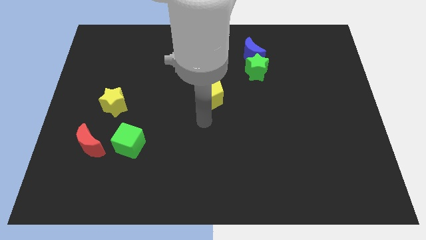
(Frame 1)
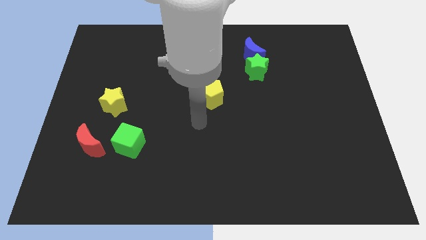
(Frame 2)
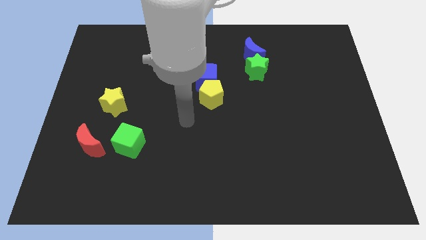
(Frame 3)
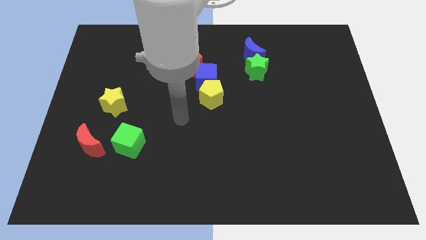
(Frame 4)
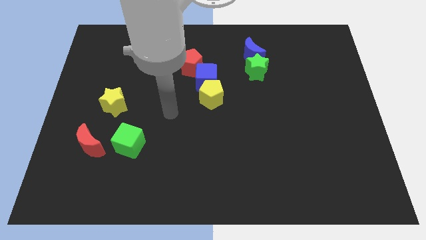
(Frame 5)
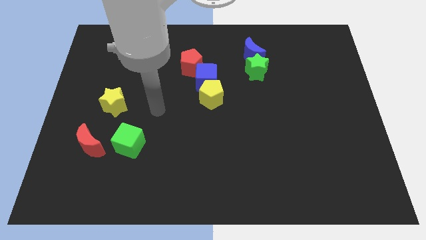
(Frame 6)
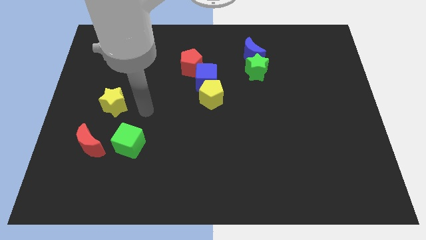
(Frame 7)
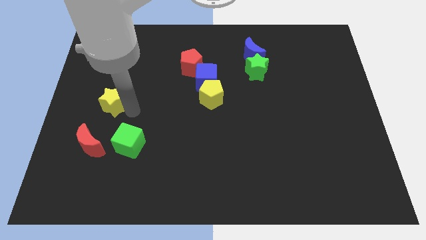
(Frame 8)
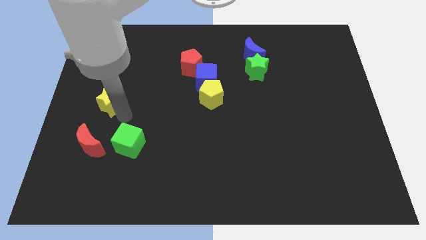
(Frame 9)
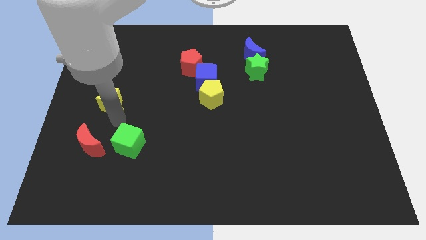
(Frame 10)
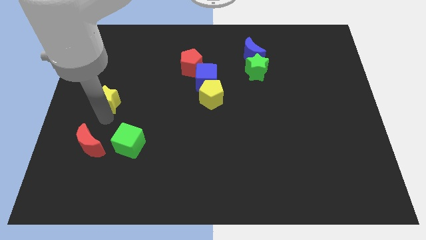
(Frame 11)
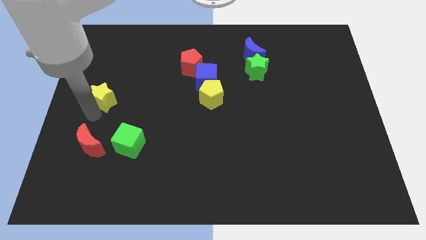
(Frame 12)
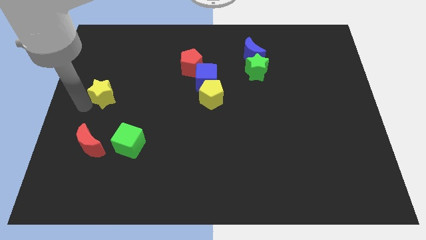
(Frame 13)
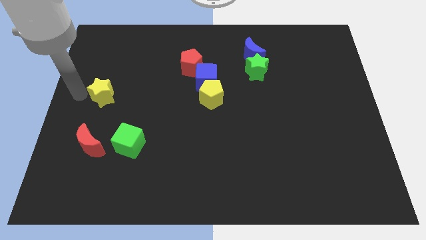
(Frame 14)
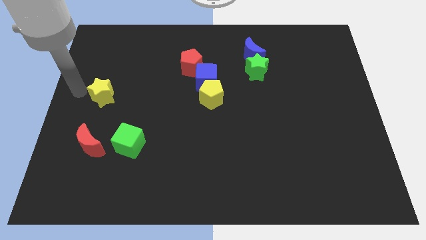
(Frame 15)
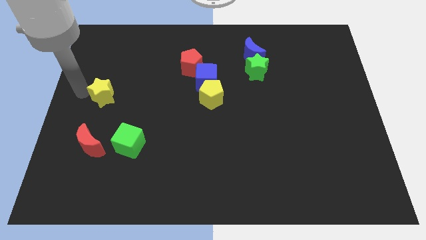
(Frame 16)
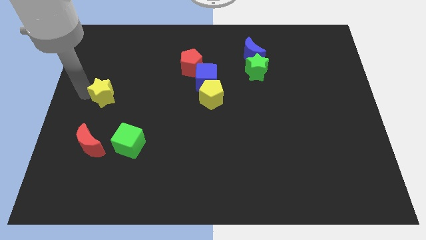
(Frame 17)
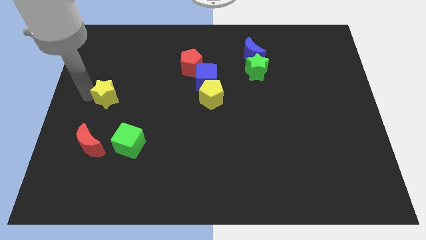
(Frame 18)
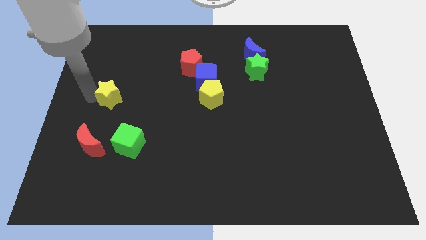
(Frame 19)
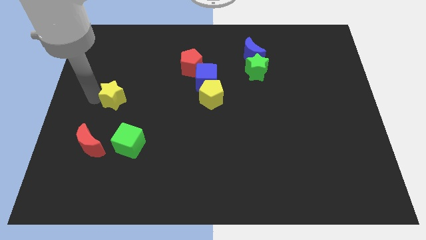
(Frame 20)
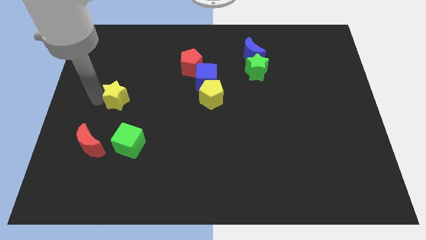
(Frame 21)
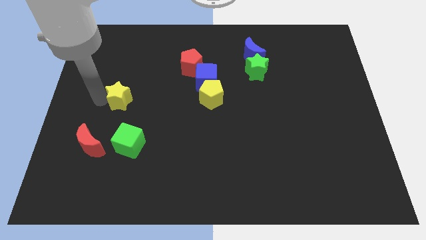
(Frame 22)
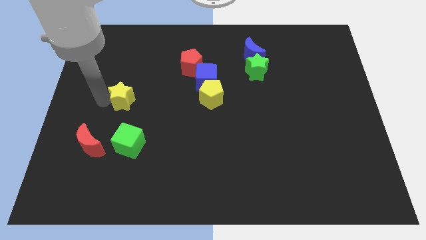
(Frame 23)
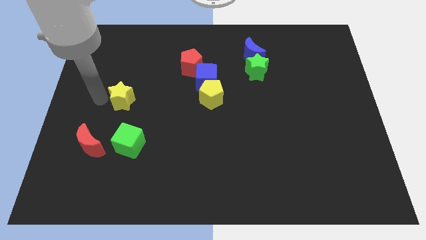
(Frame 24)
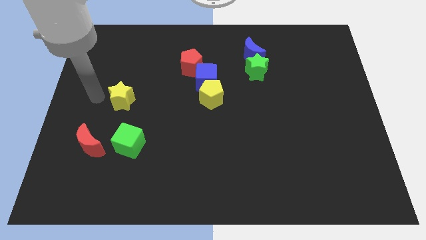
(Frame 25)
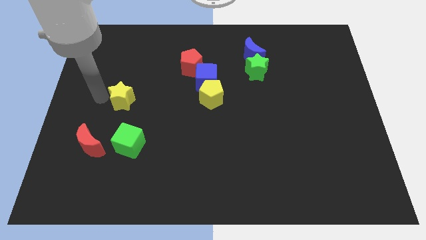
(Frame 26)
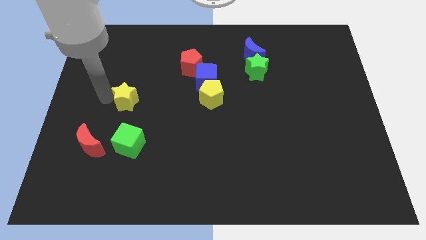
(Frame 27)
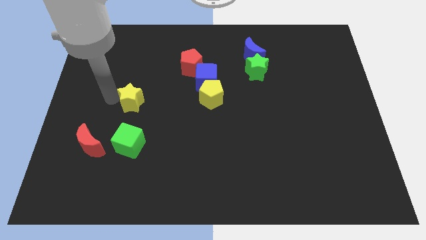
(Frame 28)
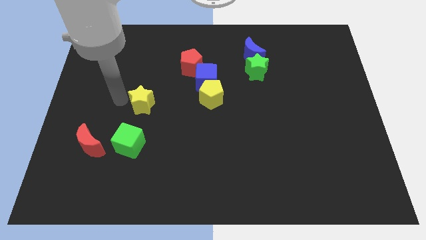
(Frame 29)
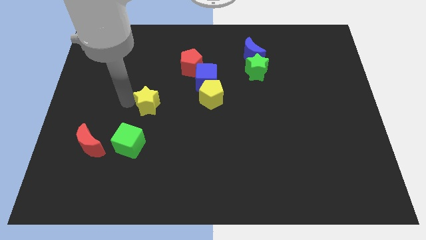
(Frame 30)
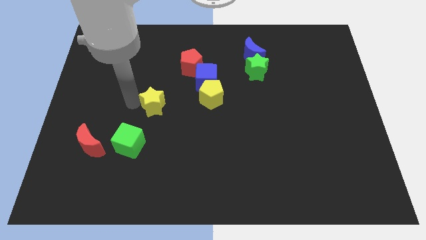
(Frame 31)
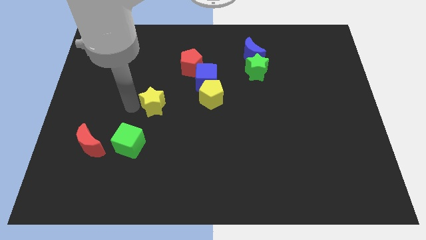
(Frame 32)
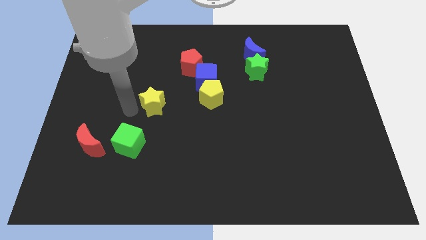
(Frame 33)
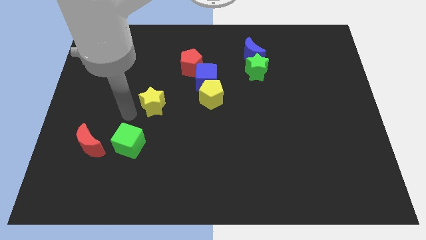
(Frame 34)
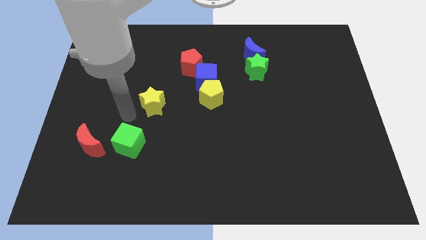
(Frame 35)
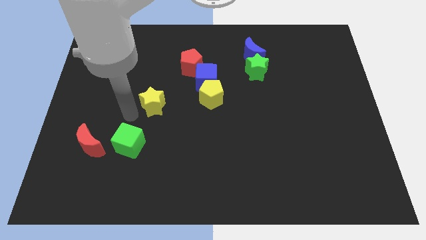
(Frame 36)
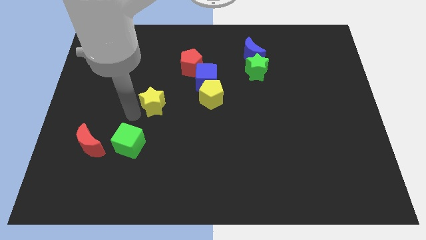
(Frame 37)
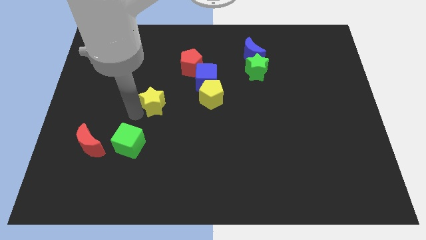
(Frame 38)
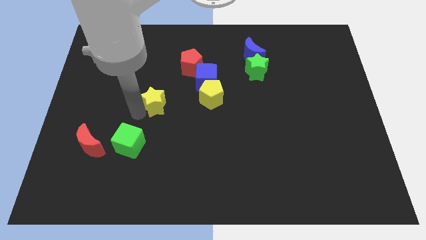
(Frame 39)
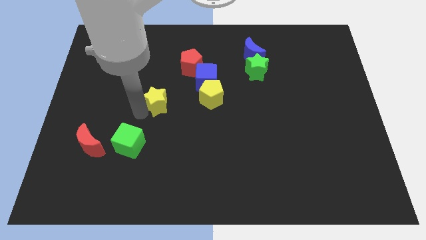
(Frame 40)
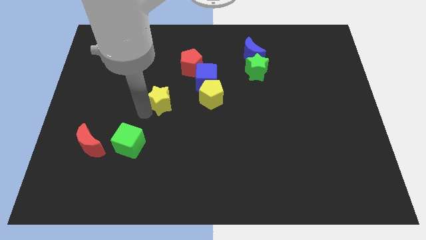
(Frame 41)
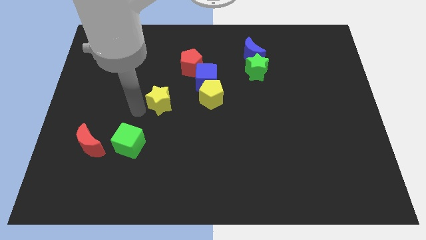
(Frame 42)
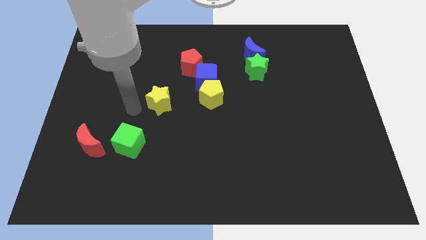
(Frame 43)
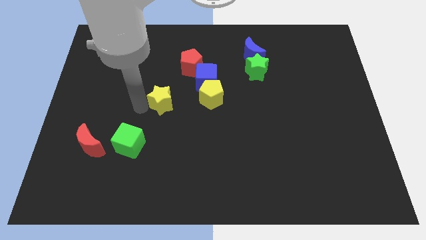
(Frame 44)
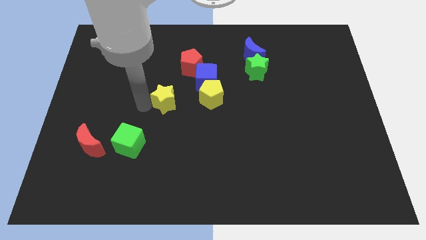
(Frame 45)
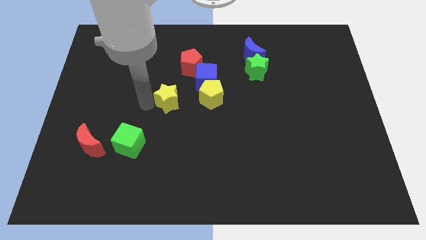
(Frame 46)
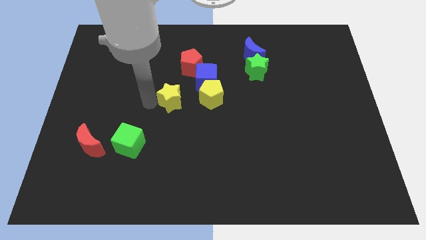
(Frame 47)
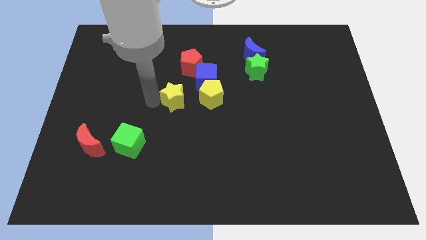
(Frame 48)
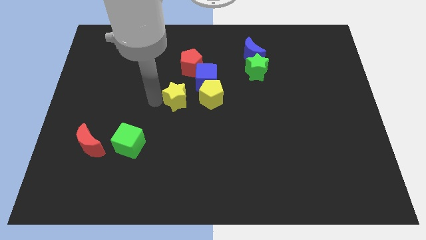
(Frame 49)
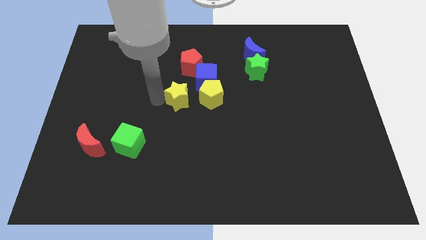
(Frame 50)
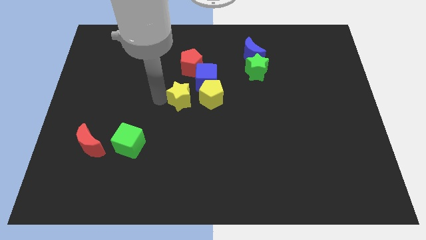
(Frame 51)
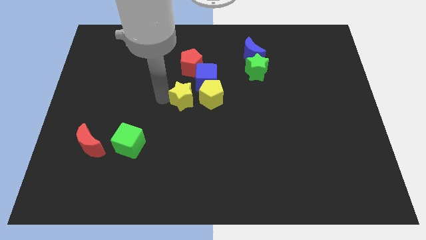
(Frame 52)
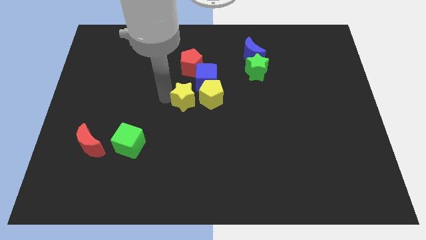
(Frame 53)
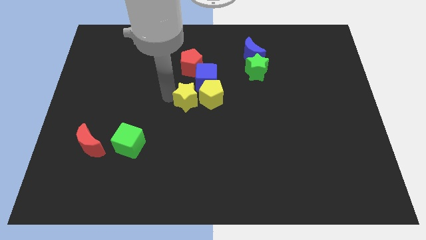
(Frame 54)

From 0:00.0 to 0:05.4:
slide the yellow star towards the yellow pentagon
